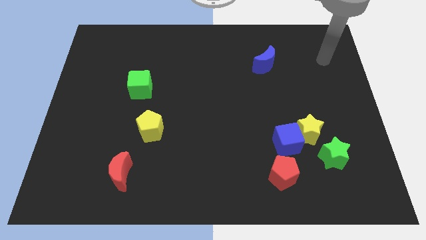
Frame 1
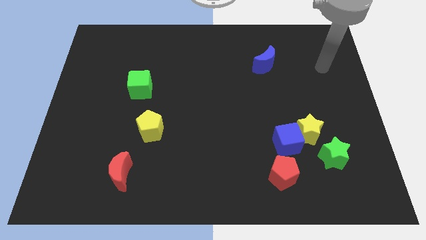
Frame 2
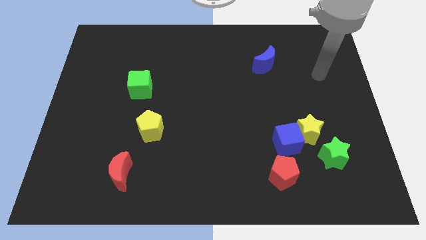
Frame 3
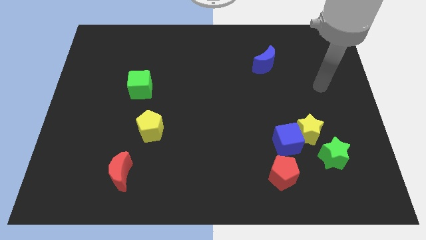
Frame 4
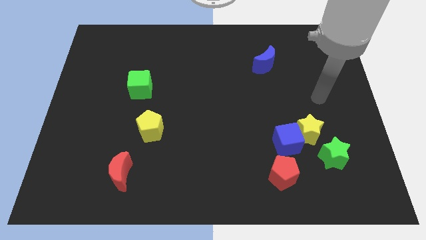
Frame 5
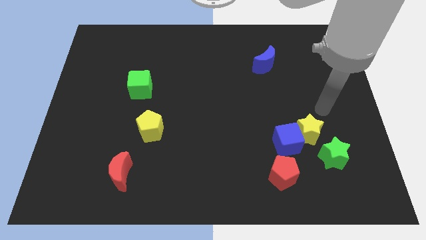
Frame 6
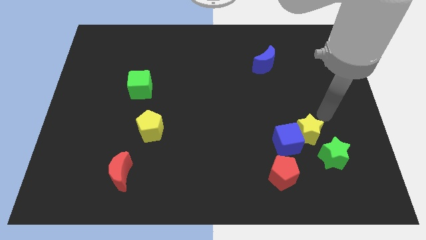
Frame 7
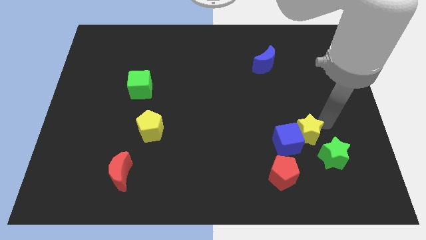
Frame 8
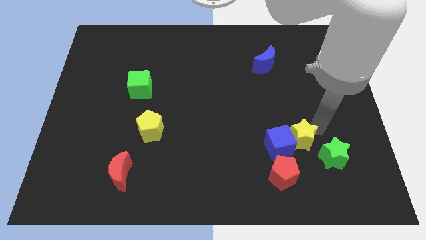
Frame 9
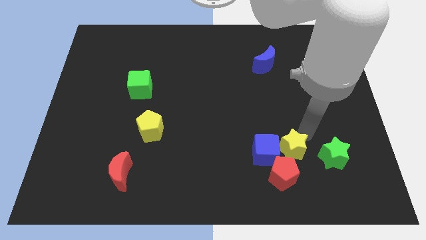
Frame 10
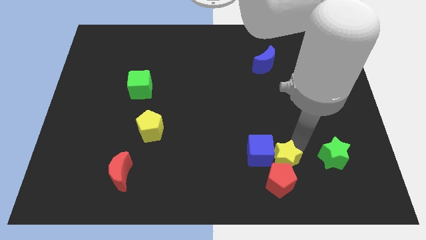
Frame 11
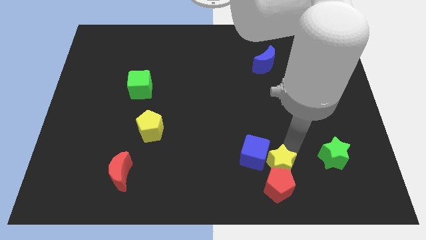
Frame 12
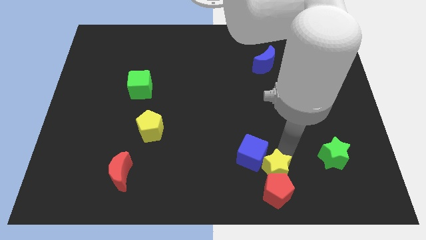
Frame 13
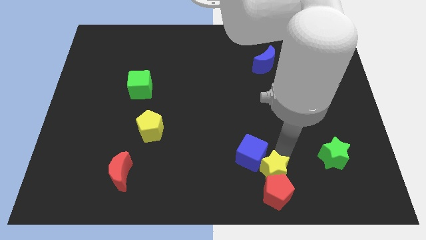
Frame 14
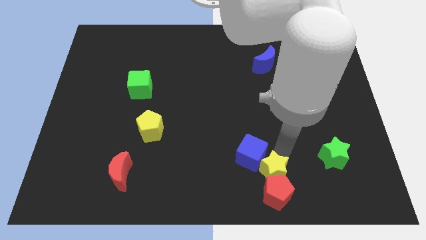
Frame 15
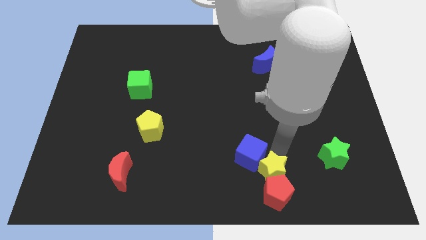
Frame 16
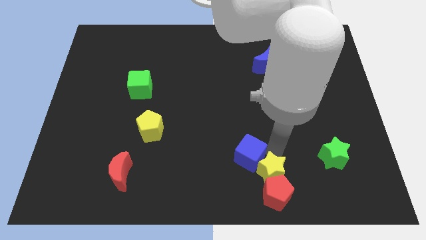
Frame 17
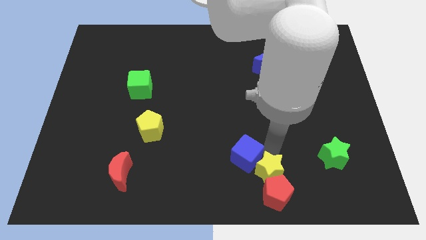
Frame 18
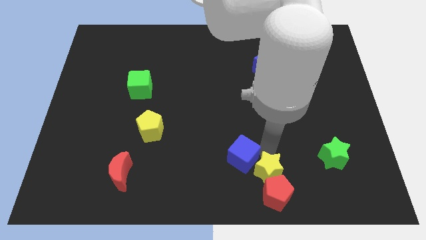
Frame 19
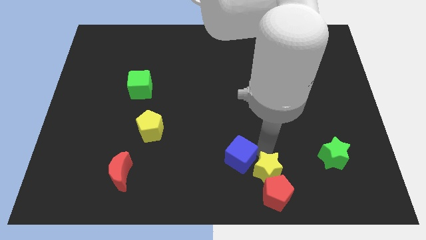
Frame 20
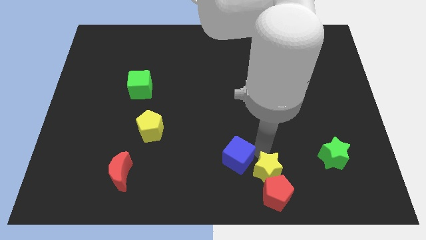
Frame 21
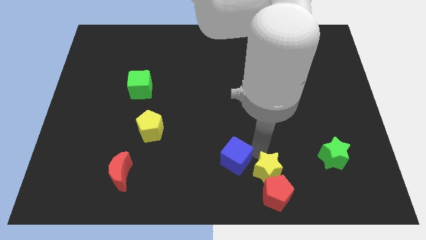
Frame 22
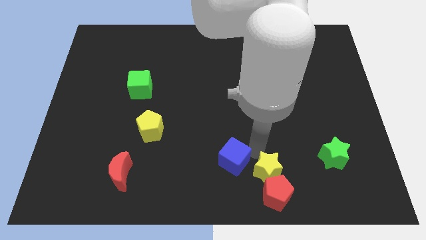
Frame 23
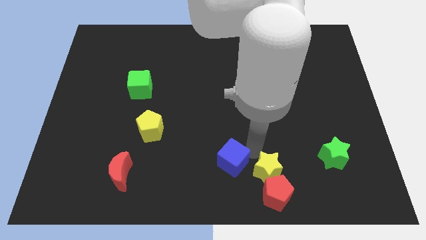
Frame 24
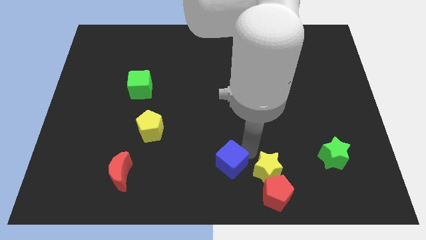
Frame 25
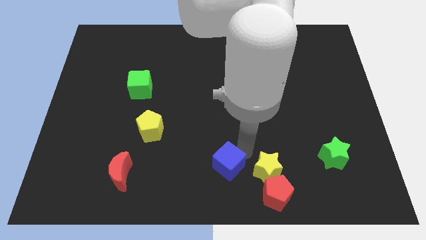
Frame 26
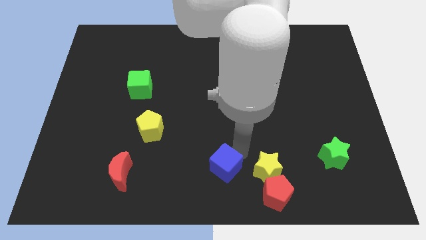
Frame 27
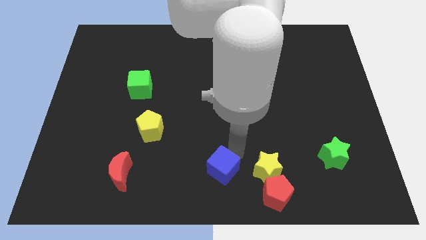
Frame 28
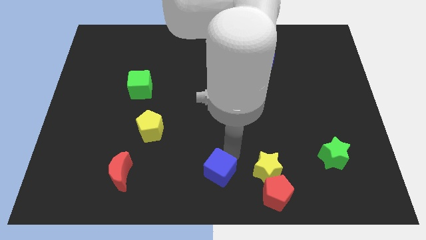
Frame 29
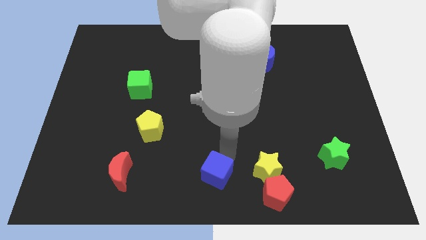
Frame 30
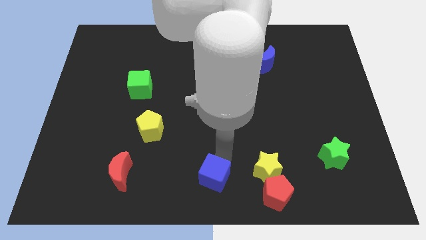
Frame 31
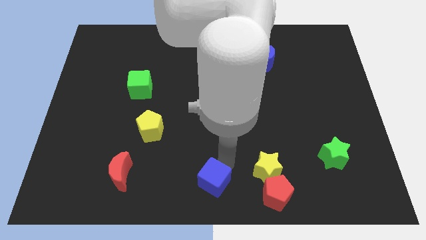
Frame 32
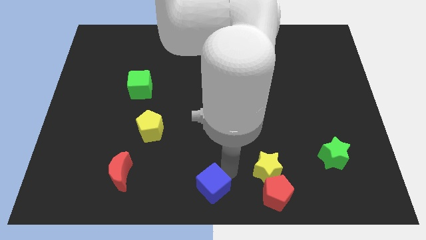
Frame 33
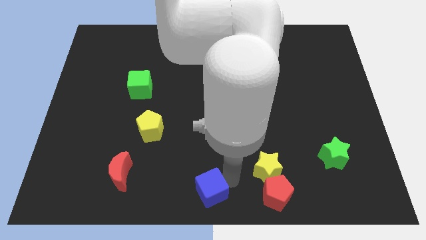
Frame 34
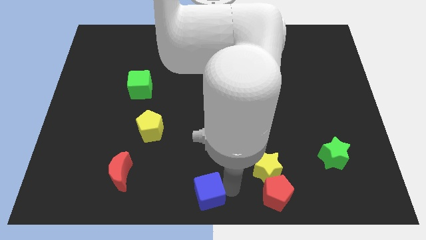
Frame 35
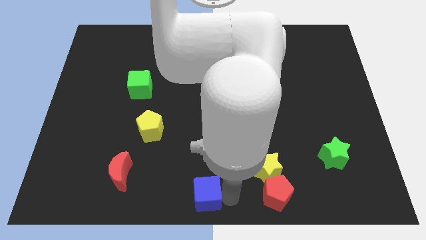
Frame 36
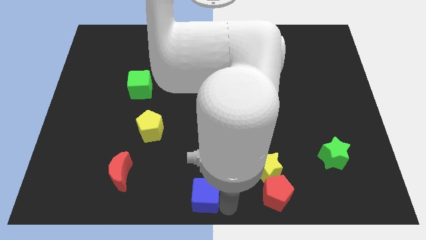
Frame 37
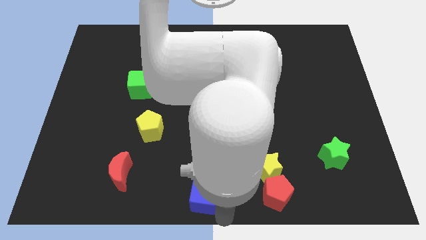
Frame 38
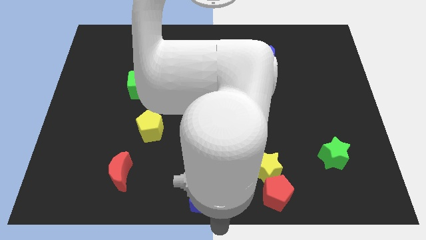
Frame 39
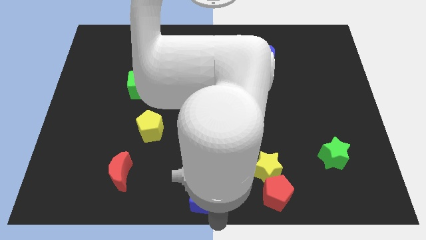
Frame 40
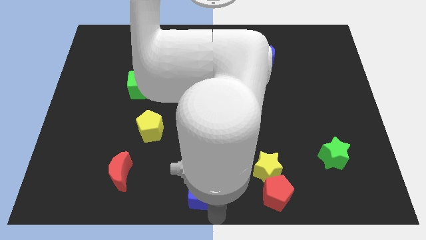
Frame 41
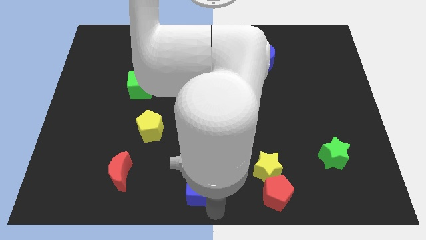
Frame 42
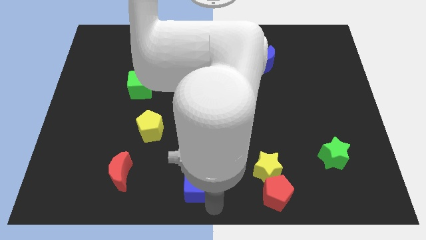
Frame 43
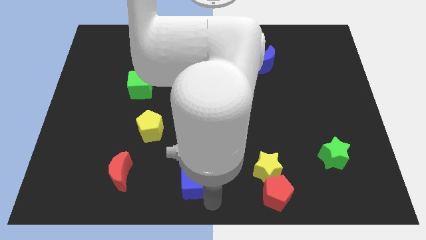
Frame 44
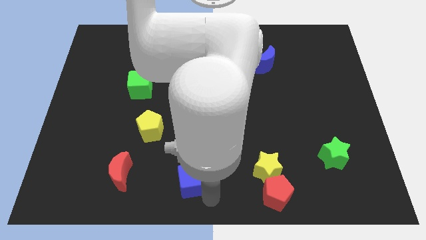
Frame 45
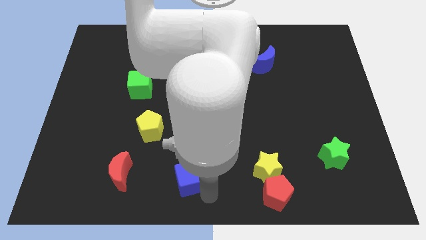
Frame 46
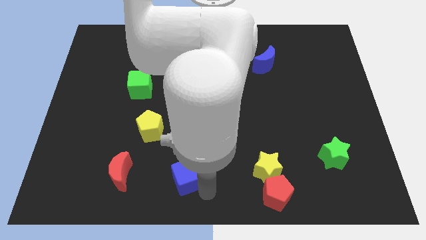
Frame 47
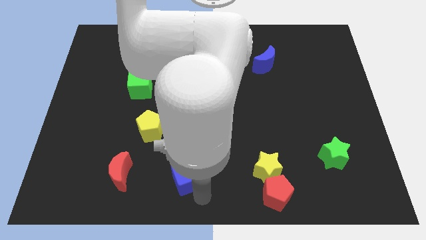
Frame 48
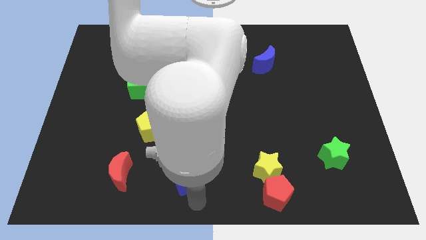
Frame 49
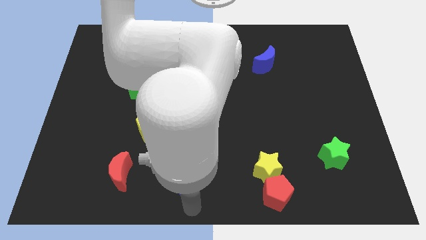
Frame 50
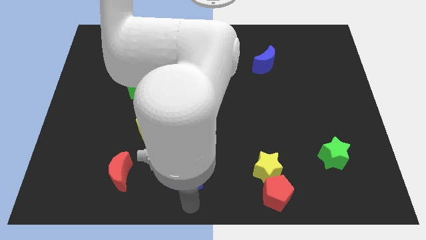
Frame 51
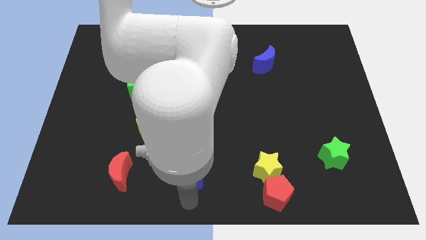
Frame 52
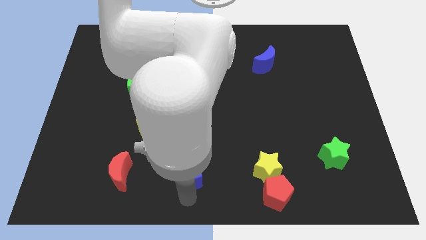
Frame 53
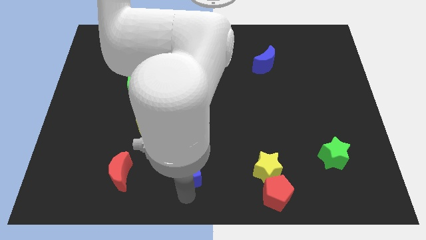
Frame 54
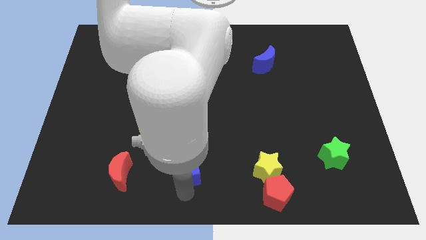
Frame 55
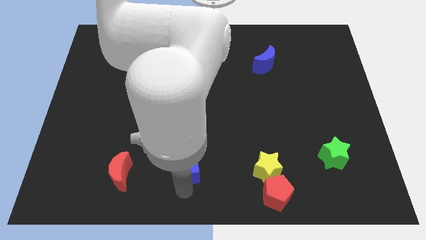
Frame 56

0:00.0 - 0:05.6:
push the blue cube to the left

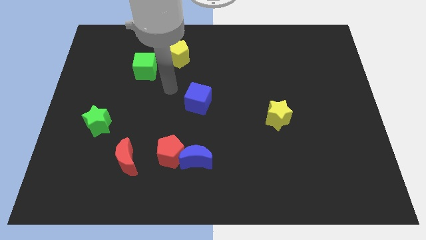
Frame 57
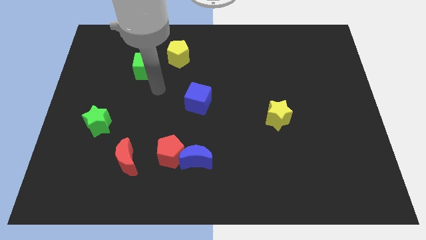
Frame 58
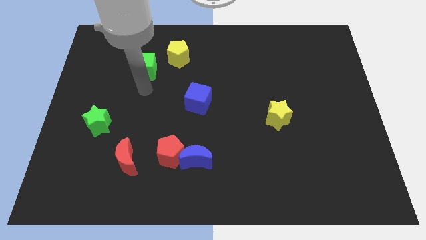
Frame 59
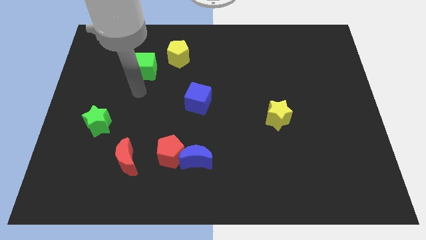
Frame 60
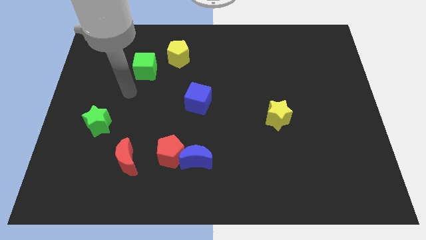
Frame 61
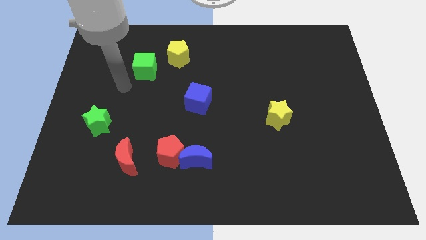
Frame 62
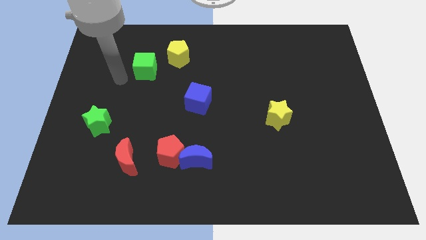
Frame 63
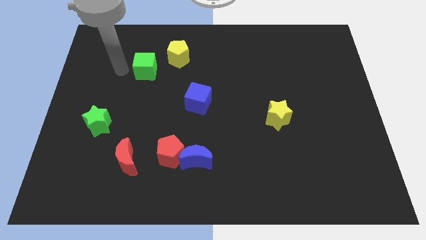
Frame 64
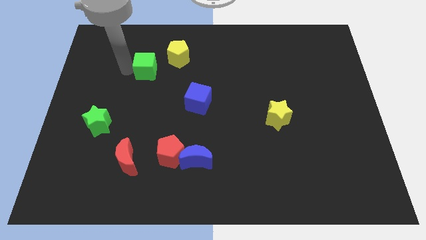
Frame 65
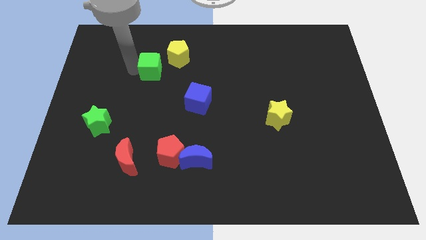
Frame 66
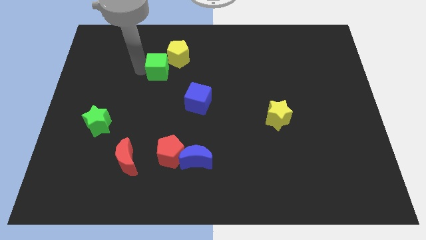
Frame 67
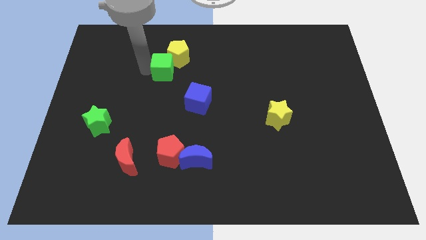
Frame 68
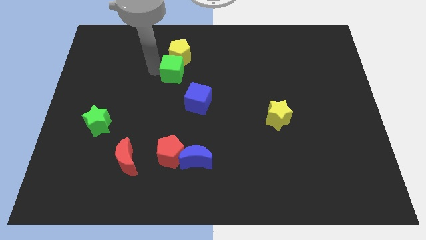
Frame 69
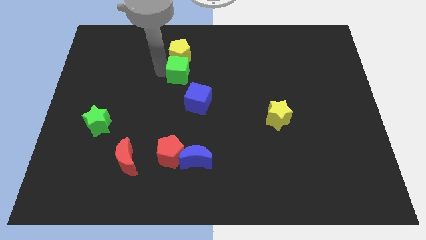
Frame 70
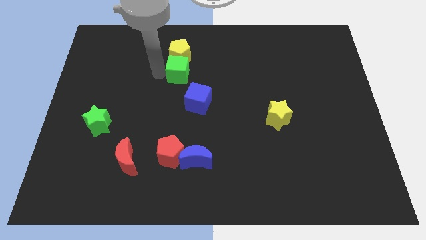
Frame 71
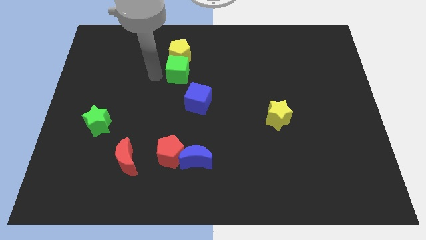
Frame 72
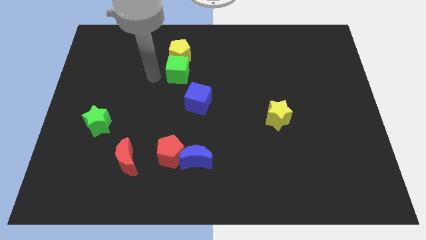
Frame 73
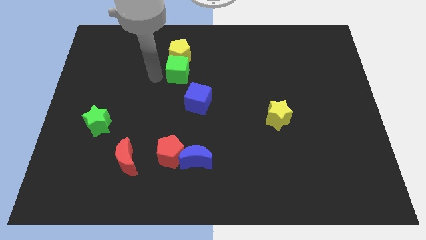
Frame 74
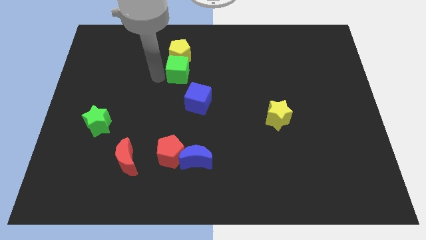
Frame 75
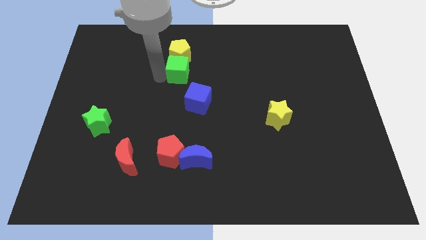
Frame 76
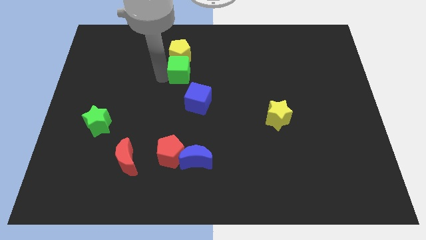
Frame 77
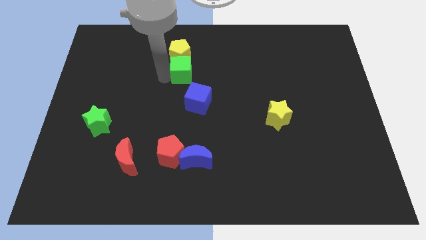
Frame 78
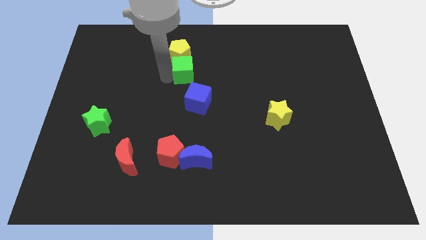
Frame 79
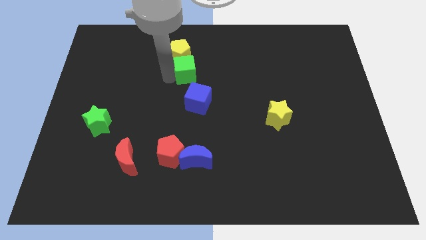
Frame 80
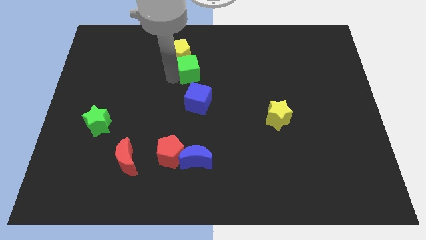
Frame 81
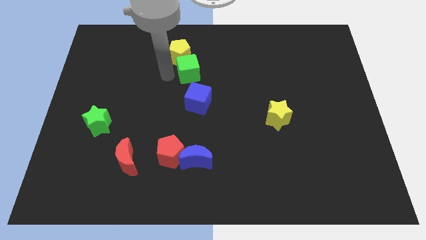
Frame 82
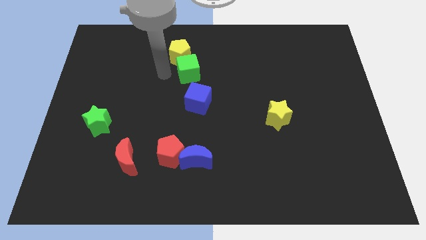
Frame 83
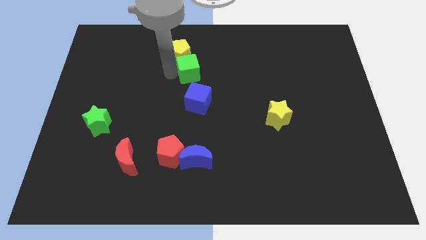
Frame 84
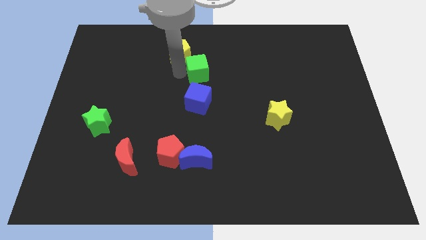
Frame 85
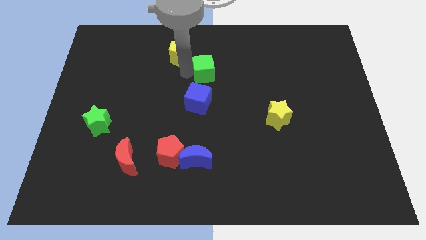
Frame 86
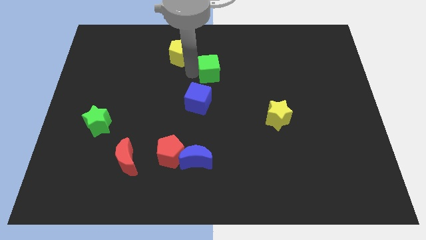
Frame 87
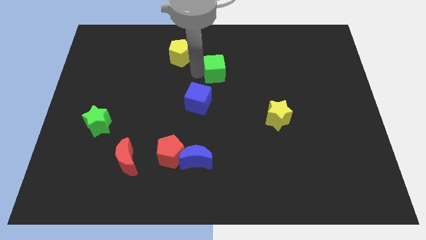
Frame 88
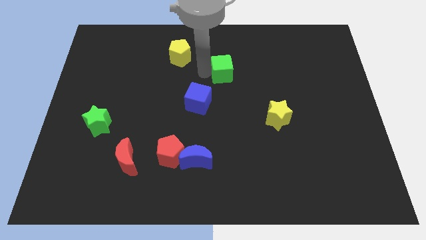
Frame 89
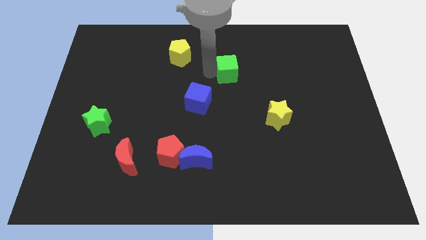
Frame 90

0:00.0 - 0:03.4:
slide the green cube to the right
